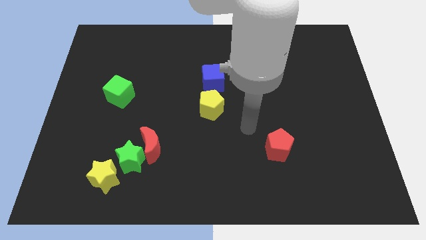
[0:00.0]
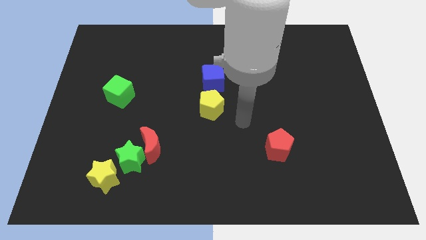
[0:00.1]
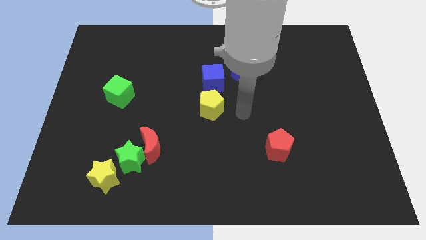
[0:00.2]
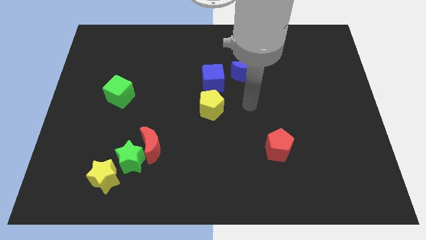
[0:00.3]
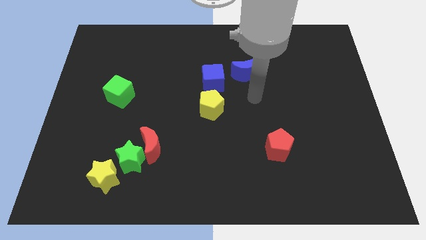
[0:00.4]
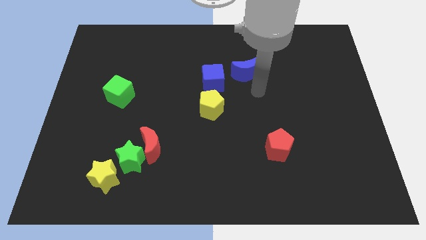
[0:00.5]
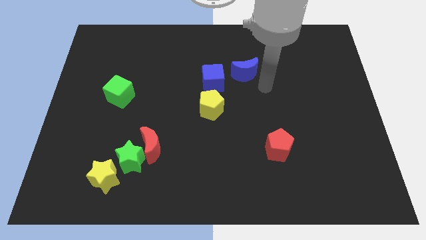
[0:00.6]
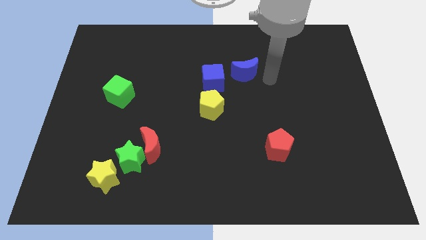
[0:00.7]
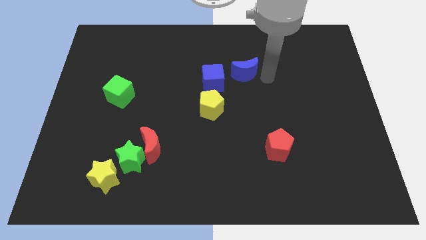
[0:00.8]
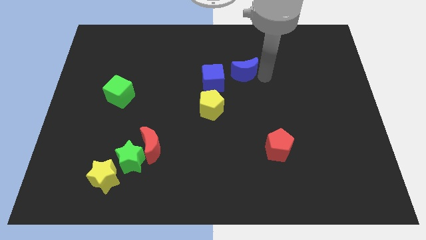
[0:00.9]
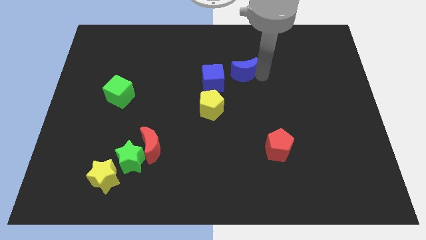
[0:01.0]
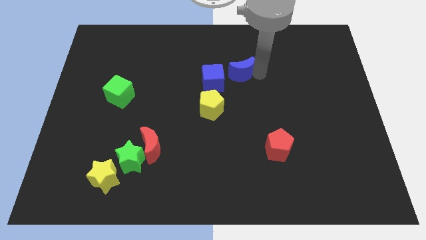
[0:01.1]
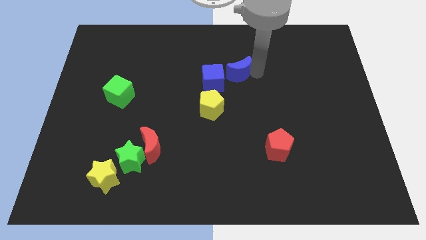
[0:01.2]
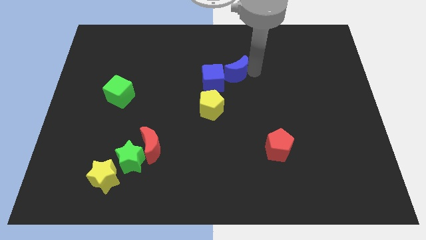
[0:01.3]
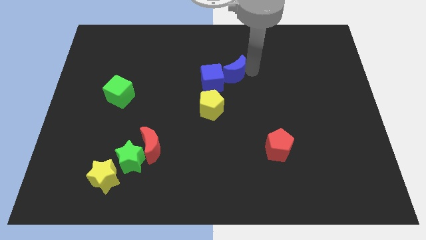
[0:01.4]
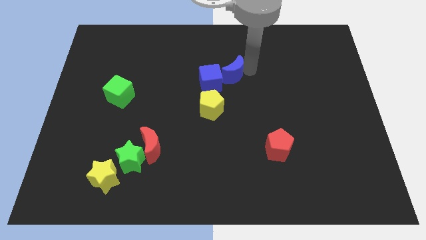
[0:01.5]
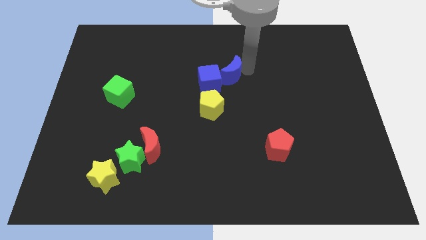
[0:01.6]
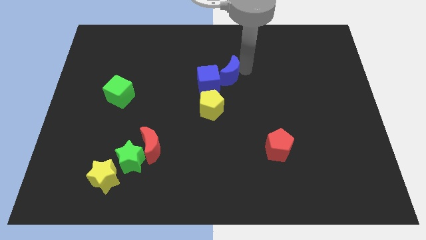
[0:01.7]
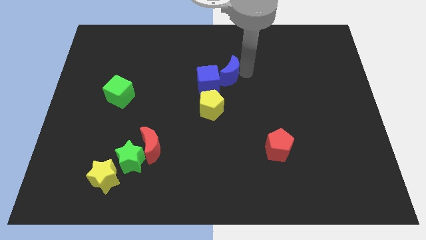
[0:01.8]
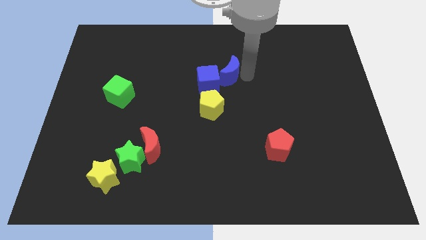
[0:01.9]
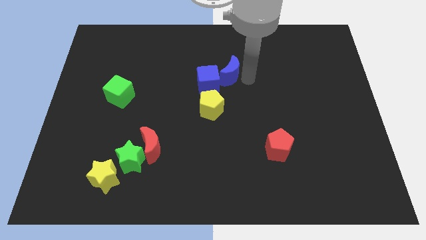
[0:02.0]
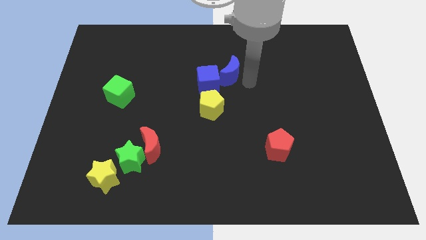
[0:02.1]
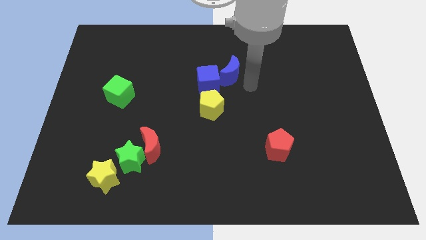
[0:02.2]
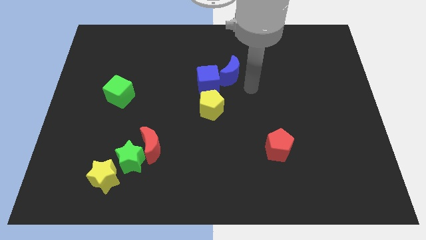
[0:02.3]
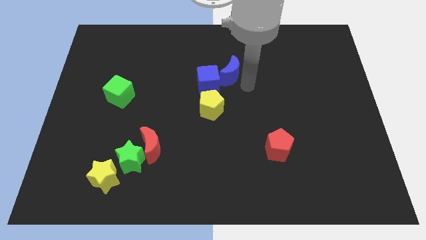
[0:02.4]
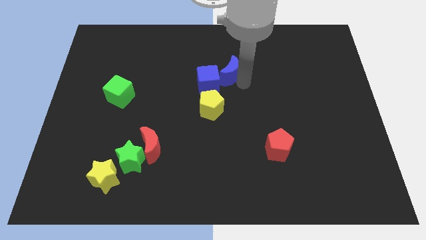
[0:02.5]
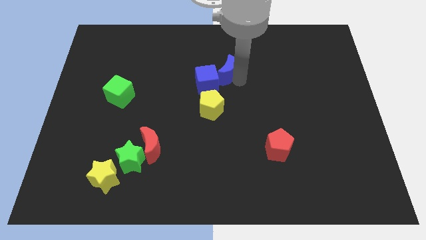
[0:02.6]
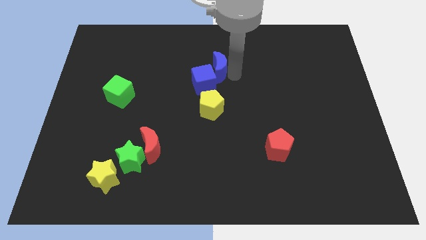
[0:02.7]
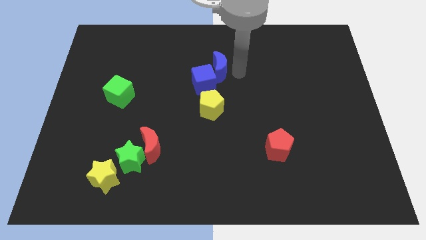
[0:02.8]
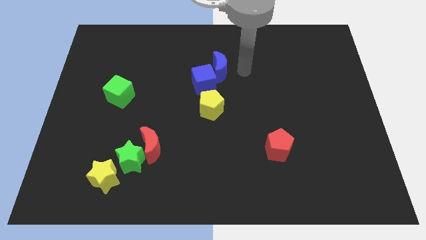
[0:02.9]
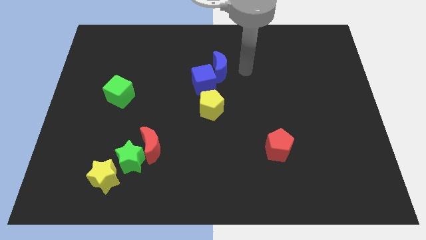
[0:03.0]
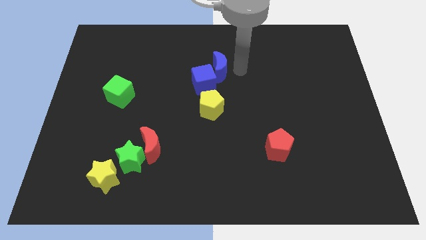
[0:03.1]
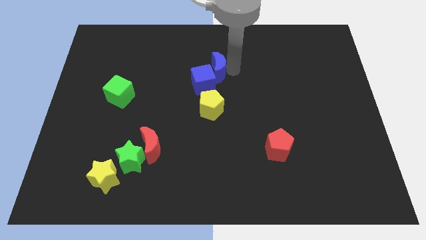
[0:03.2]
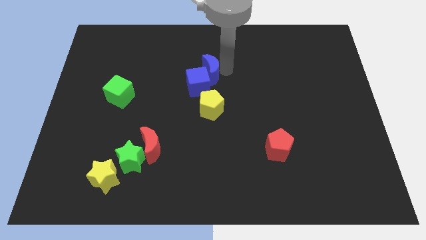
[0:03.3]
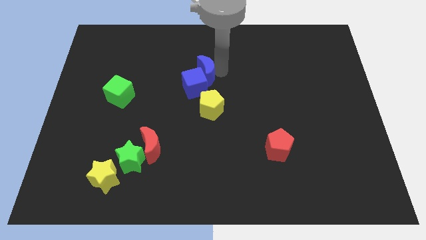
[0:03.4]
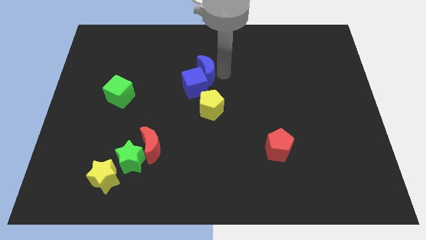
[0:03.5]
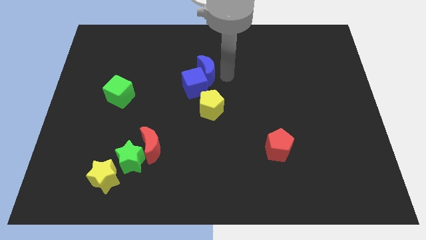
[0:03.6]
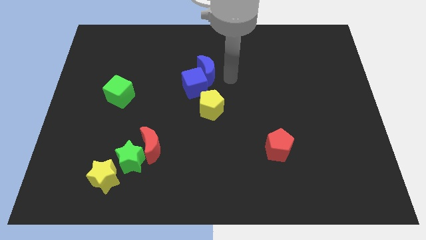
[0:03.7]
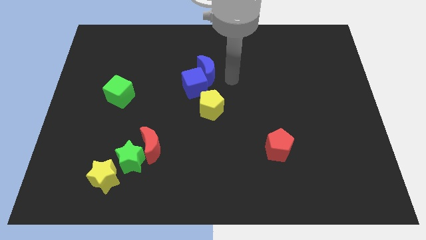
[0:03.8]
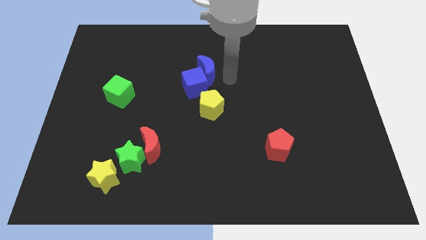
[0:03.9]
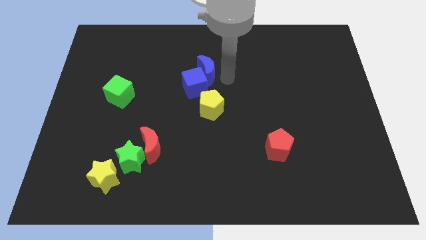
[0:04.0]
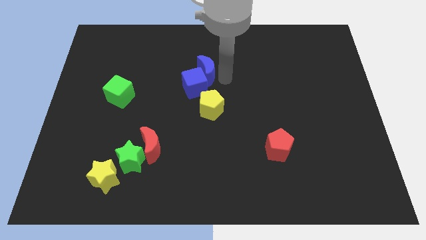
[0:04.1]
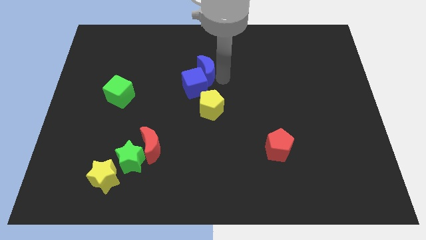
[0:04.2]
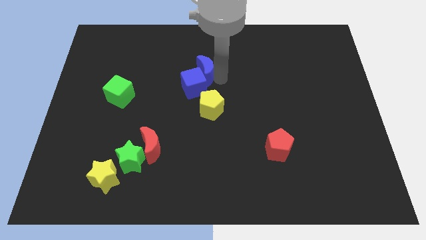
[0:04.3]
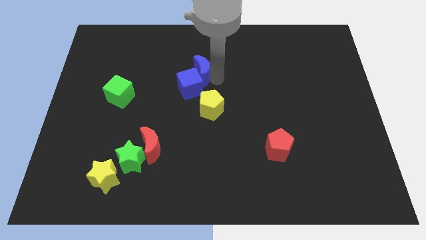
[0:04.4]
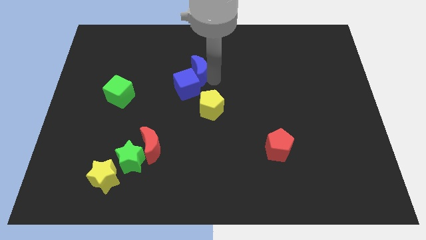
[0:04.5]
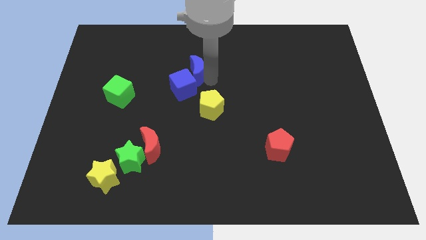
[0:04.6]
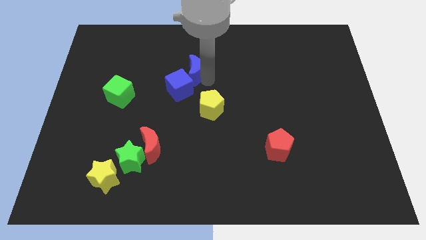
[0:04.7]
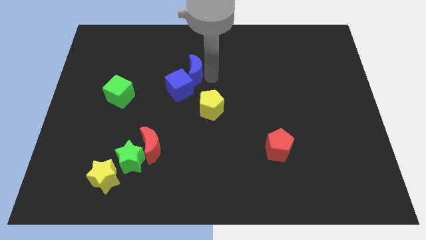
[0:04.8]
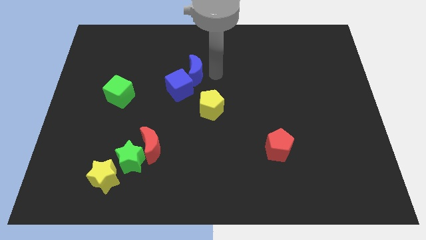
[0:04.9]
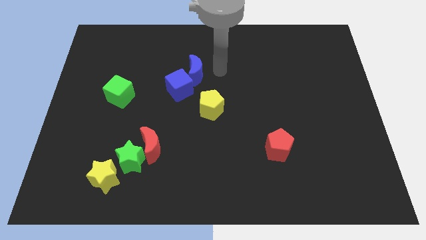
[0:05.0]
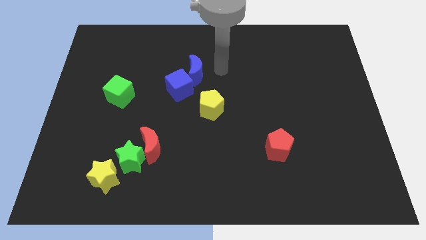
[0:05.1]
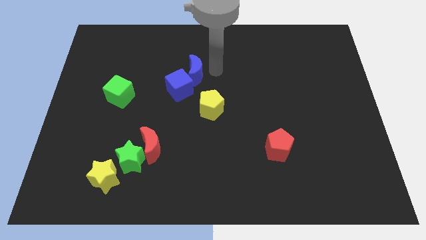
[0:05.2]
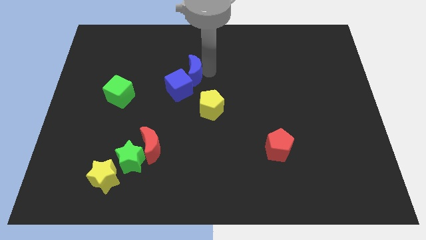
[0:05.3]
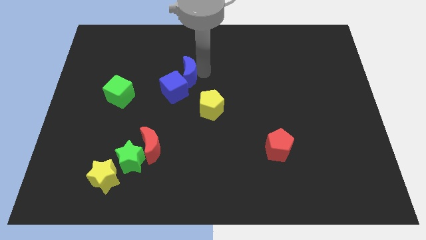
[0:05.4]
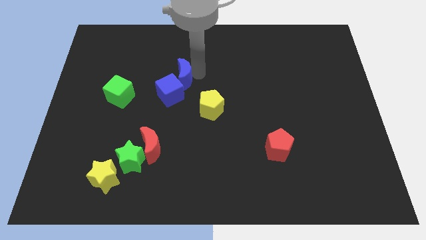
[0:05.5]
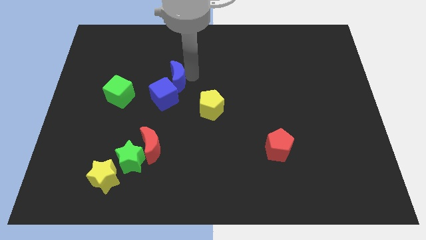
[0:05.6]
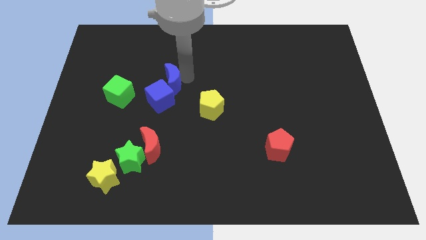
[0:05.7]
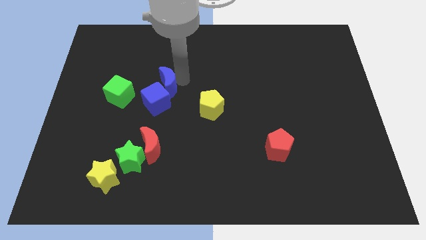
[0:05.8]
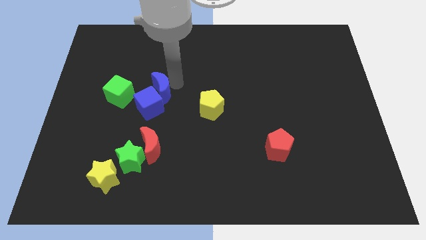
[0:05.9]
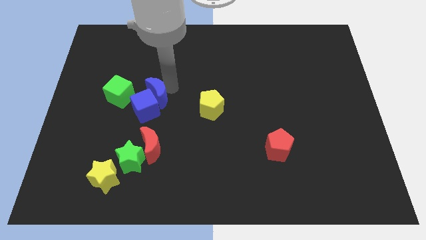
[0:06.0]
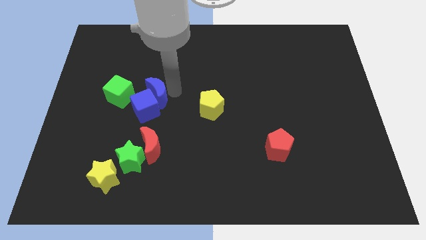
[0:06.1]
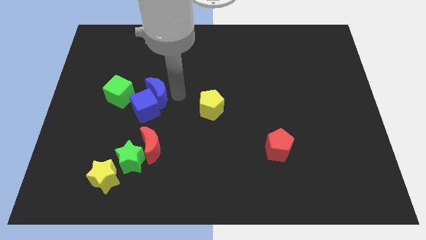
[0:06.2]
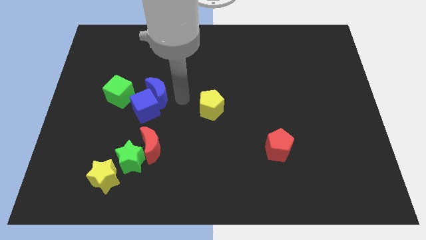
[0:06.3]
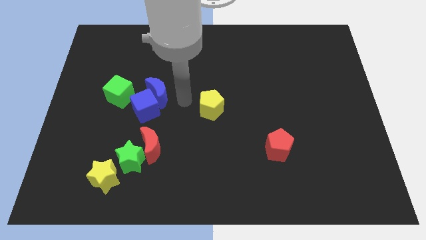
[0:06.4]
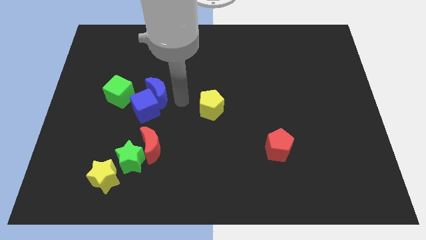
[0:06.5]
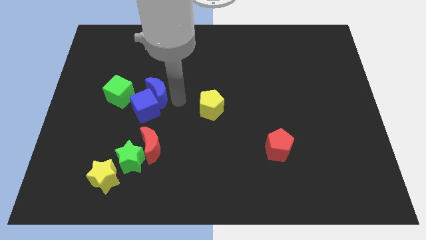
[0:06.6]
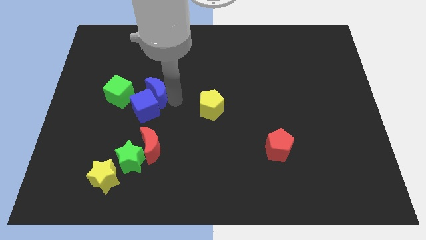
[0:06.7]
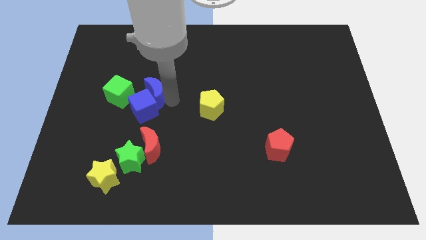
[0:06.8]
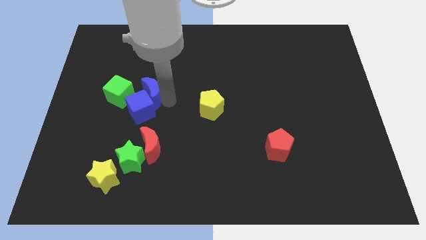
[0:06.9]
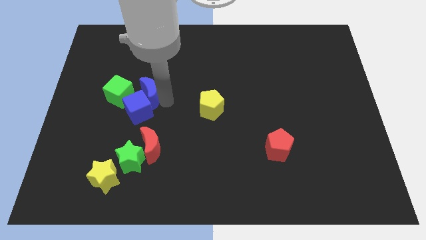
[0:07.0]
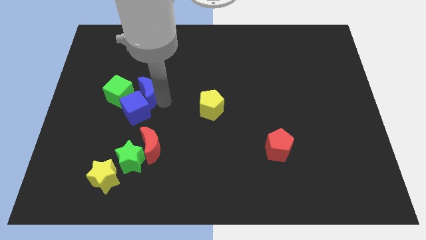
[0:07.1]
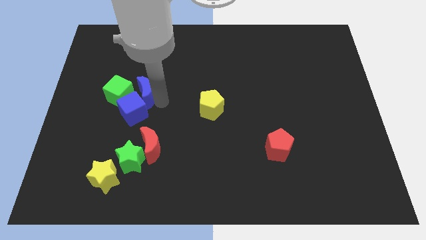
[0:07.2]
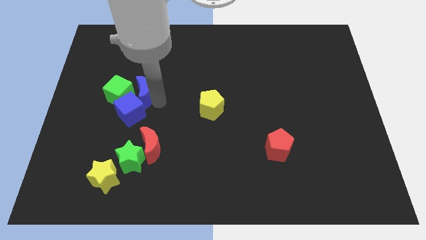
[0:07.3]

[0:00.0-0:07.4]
push the blue moon towards the green cube
